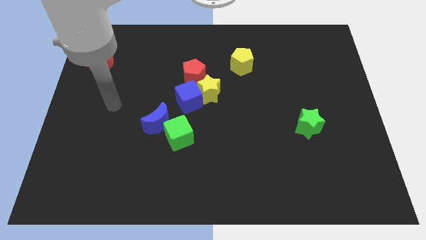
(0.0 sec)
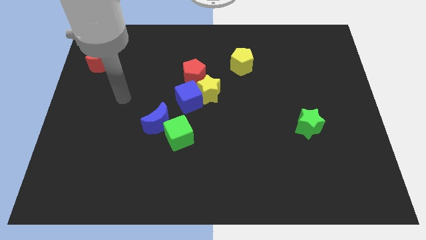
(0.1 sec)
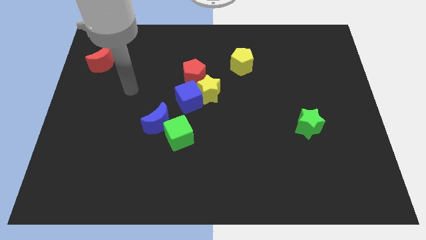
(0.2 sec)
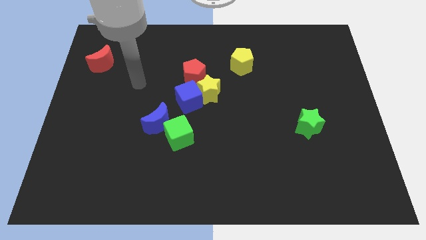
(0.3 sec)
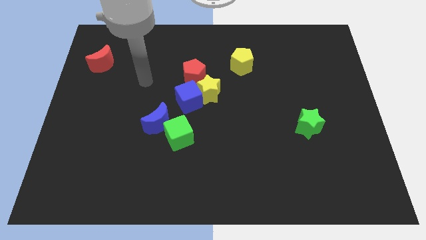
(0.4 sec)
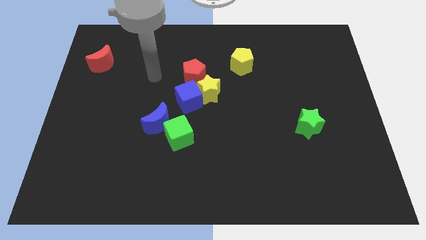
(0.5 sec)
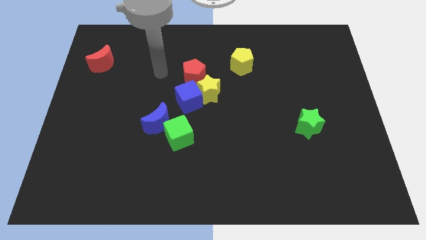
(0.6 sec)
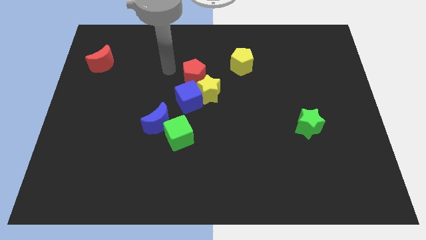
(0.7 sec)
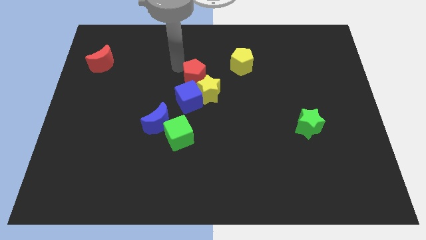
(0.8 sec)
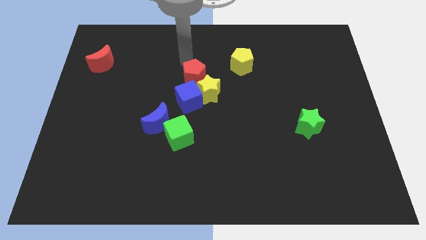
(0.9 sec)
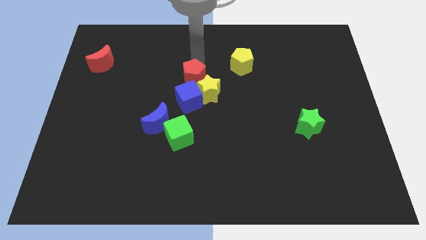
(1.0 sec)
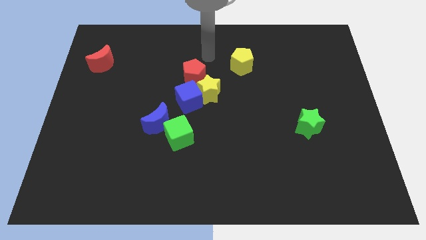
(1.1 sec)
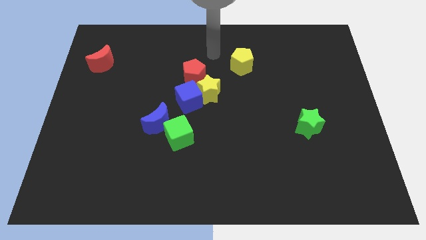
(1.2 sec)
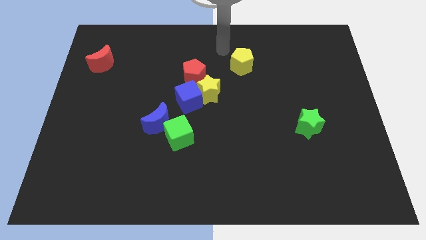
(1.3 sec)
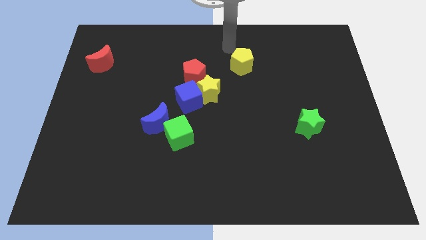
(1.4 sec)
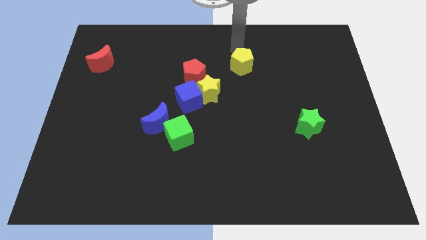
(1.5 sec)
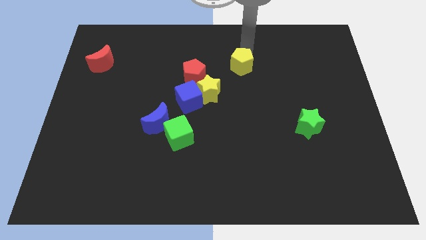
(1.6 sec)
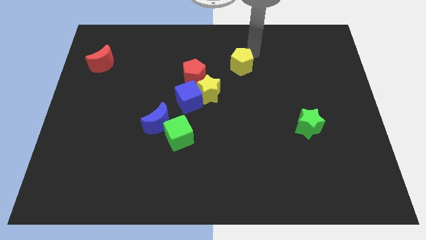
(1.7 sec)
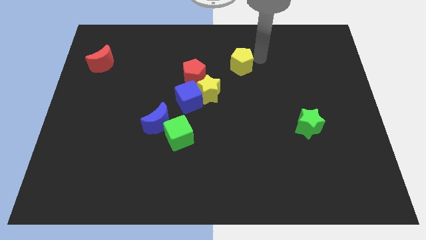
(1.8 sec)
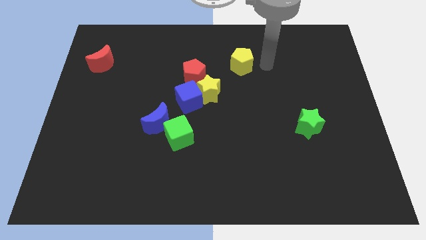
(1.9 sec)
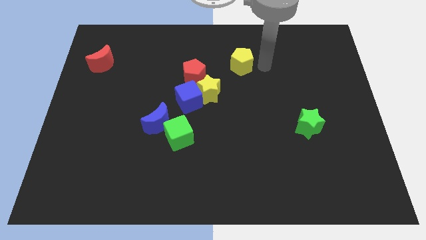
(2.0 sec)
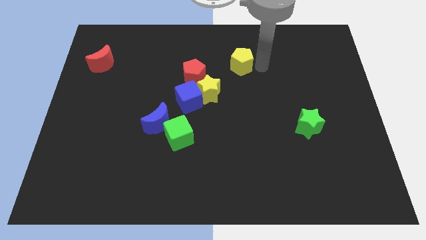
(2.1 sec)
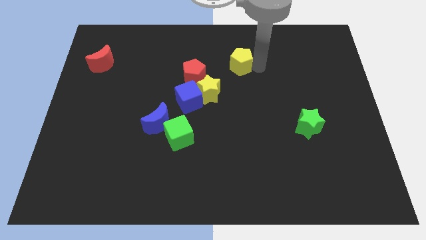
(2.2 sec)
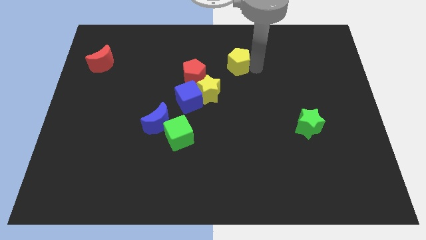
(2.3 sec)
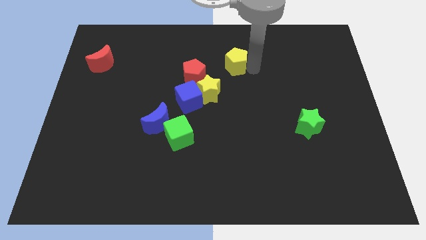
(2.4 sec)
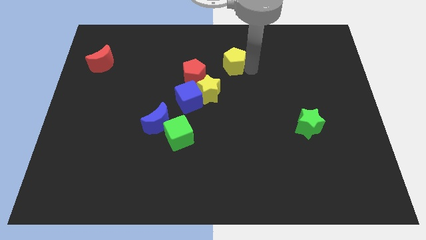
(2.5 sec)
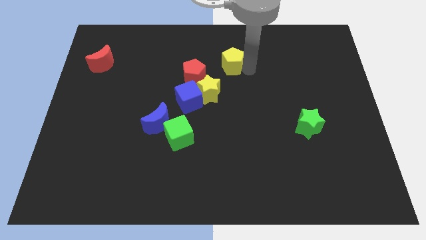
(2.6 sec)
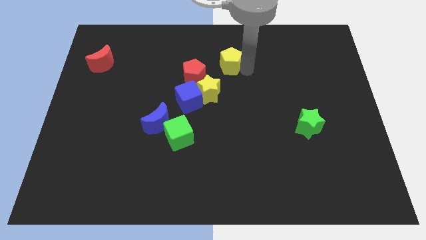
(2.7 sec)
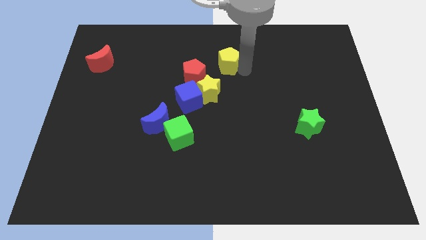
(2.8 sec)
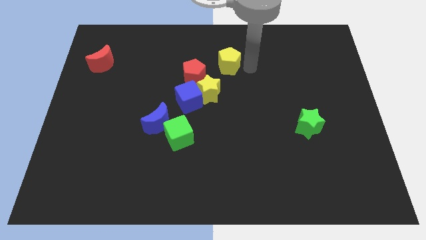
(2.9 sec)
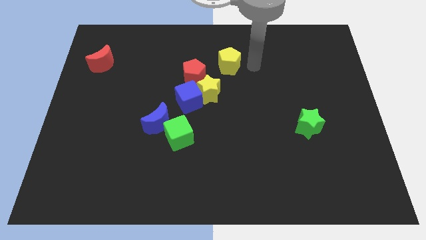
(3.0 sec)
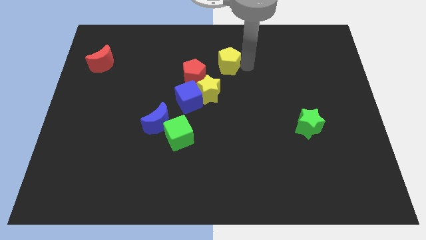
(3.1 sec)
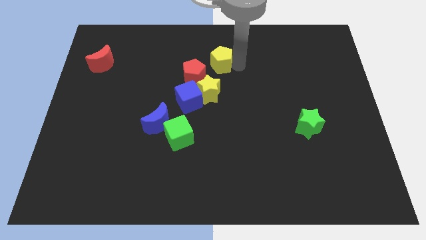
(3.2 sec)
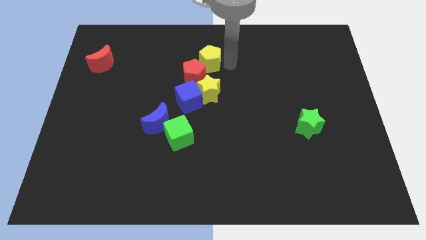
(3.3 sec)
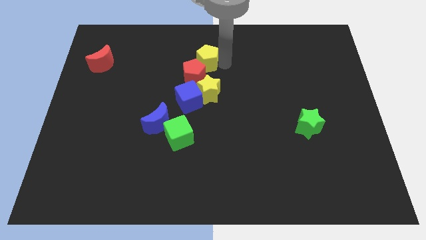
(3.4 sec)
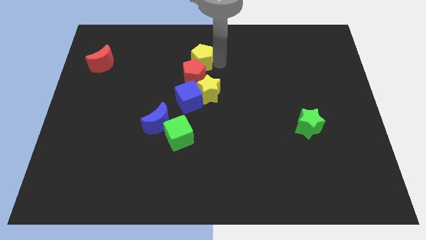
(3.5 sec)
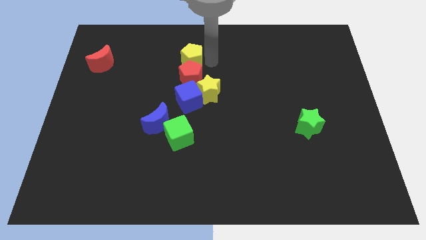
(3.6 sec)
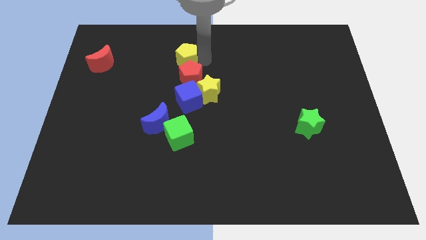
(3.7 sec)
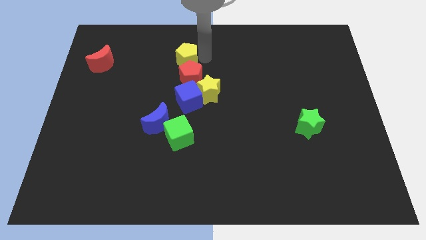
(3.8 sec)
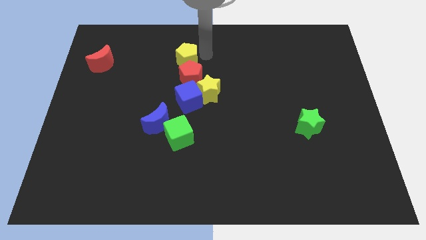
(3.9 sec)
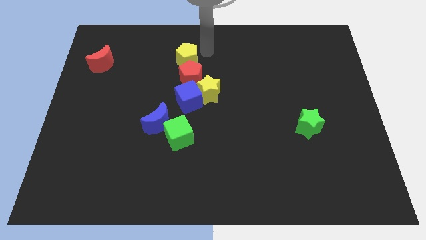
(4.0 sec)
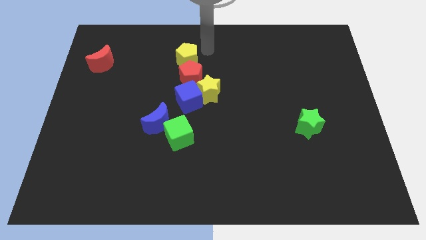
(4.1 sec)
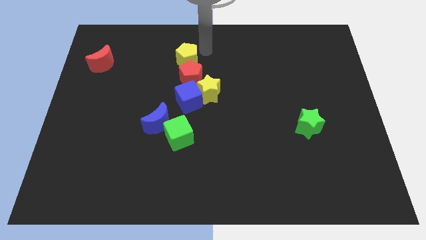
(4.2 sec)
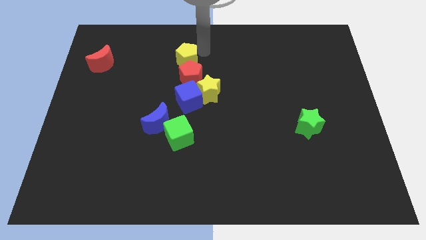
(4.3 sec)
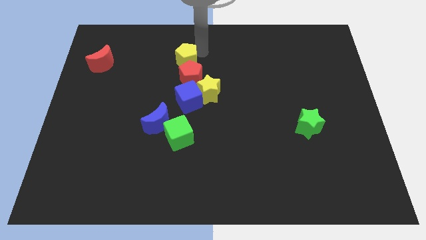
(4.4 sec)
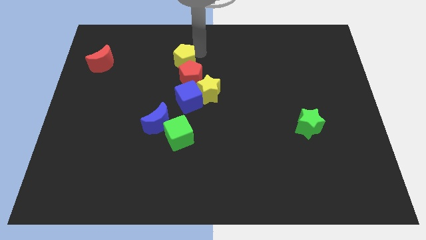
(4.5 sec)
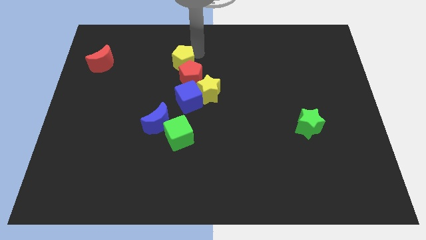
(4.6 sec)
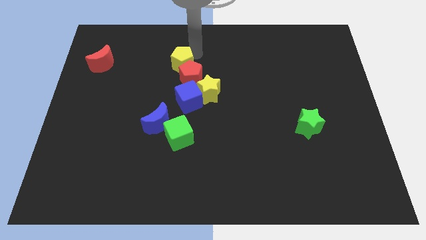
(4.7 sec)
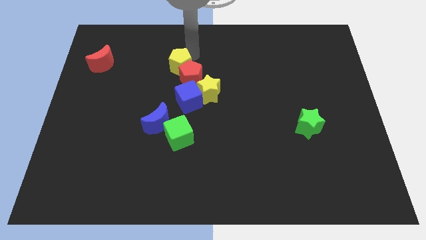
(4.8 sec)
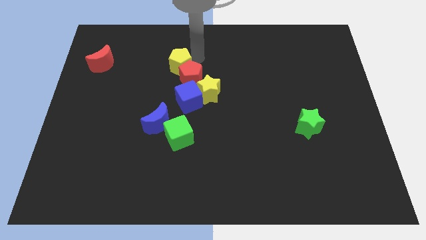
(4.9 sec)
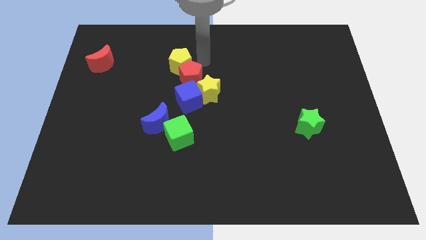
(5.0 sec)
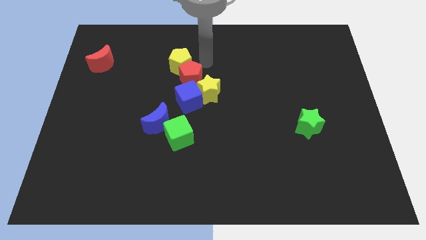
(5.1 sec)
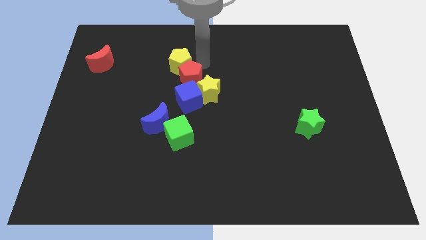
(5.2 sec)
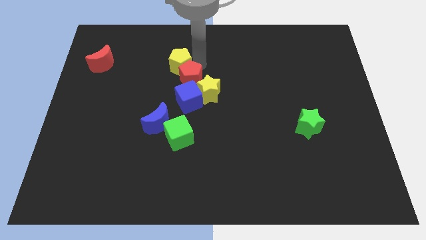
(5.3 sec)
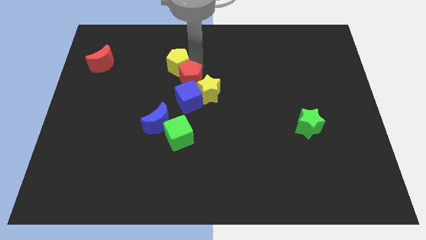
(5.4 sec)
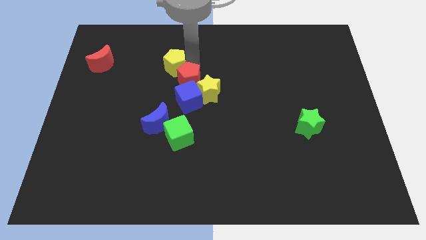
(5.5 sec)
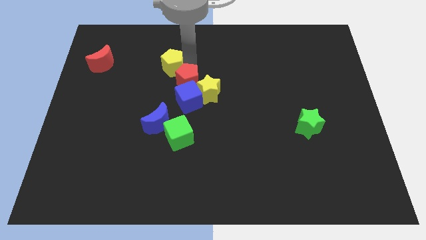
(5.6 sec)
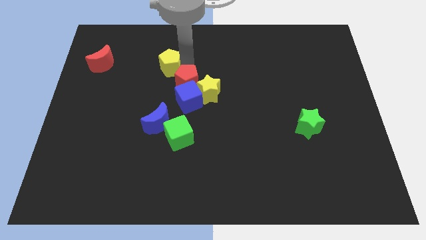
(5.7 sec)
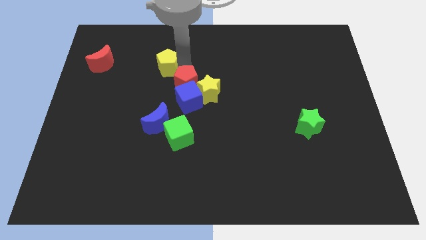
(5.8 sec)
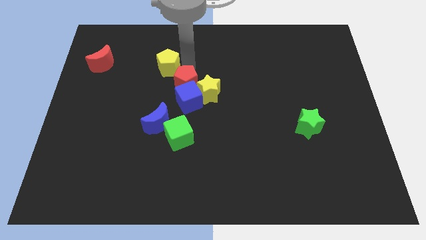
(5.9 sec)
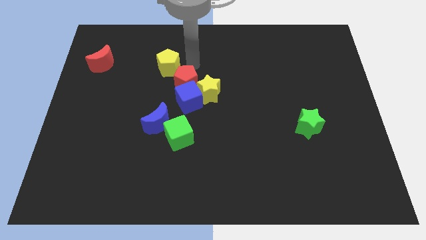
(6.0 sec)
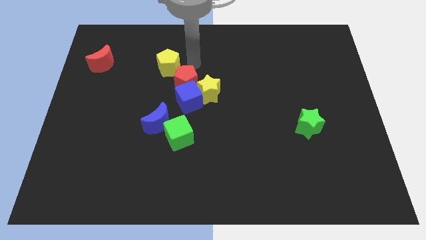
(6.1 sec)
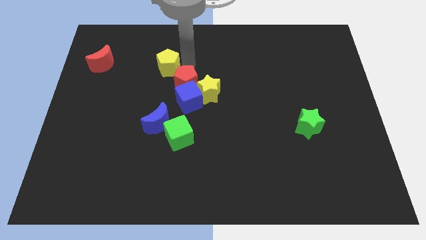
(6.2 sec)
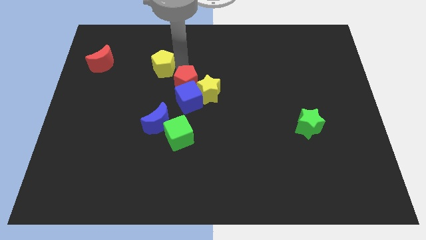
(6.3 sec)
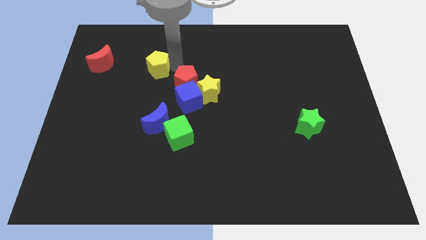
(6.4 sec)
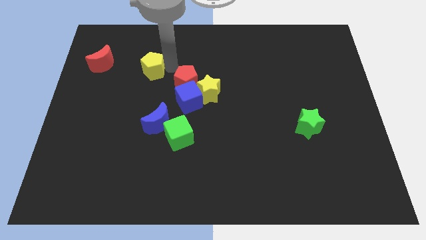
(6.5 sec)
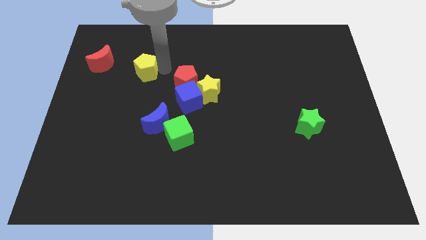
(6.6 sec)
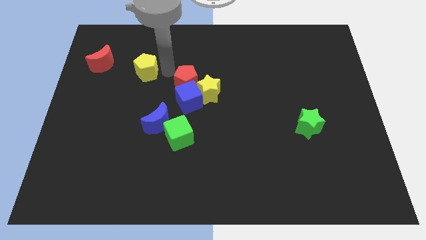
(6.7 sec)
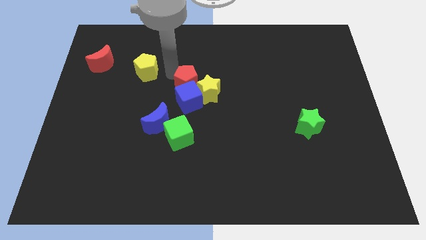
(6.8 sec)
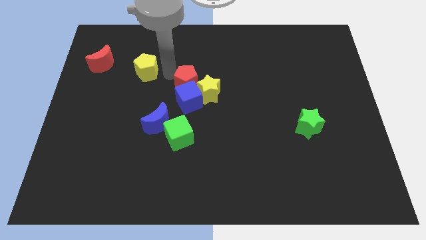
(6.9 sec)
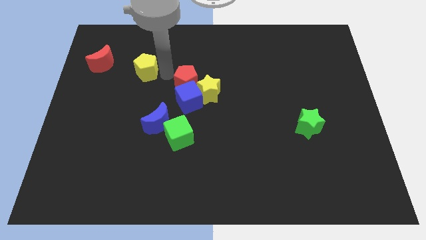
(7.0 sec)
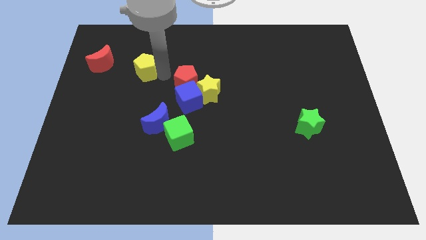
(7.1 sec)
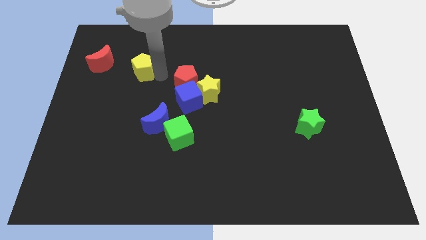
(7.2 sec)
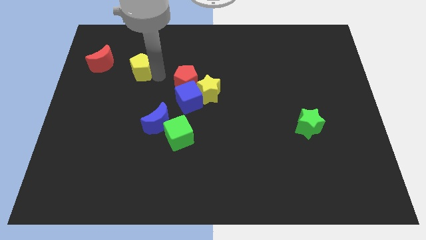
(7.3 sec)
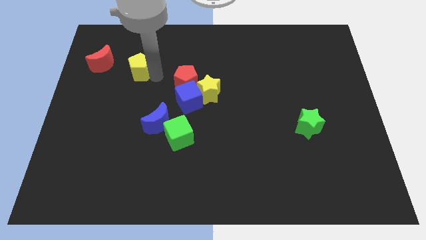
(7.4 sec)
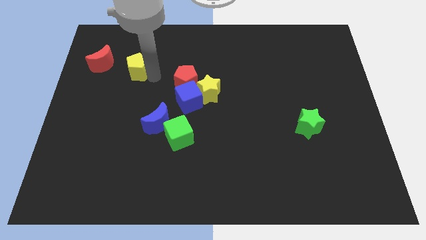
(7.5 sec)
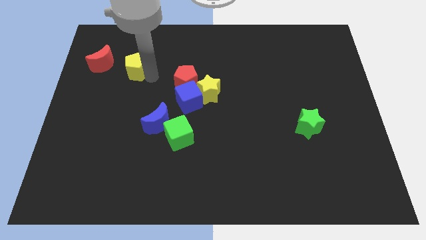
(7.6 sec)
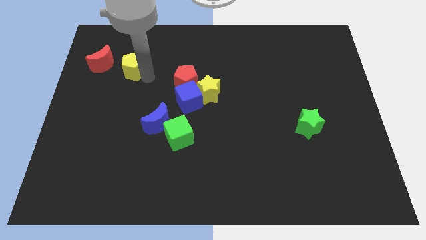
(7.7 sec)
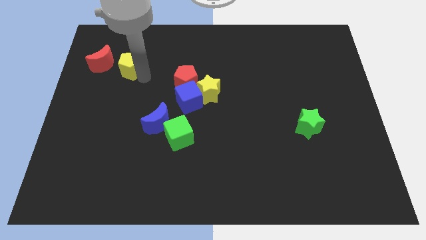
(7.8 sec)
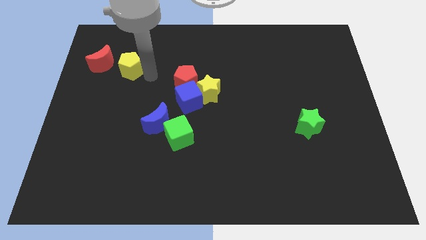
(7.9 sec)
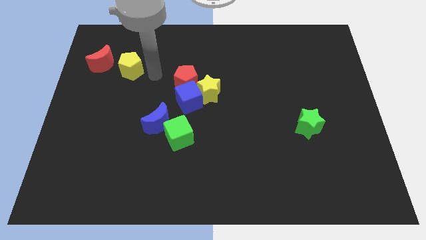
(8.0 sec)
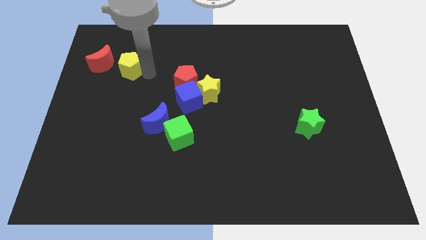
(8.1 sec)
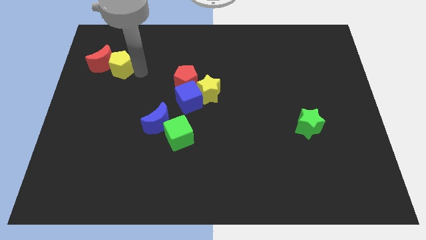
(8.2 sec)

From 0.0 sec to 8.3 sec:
put the yellow pentagon next to the red moon
